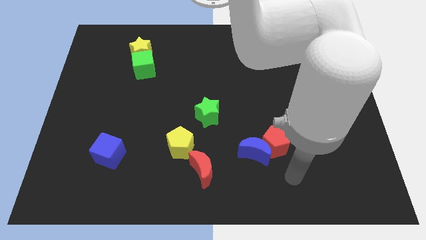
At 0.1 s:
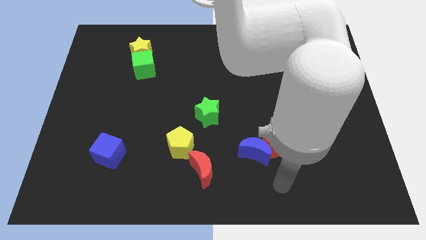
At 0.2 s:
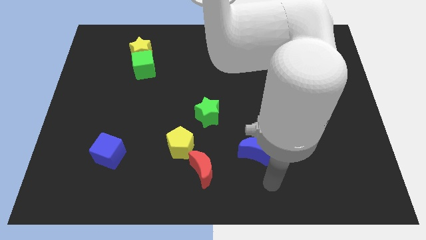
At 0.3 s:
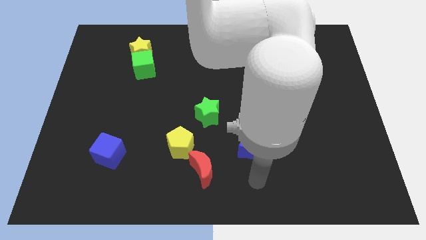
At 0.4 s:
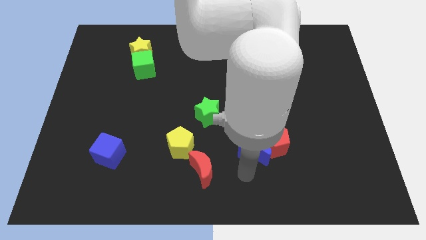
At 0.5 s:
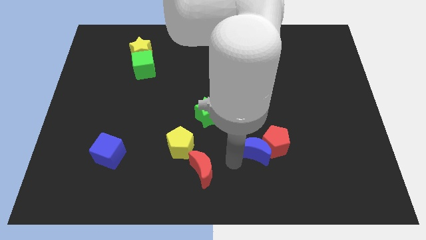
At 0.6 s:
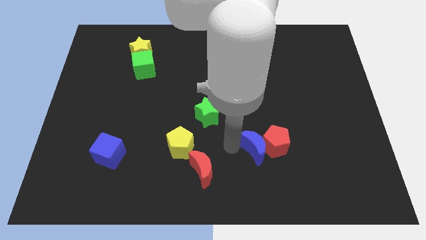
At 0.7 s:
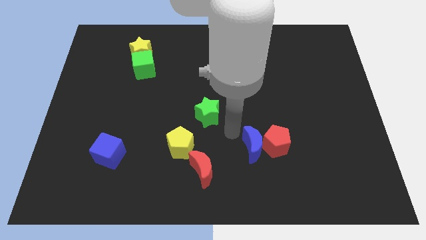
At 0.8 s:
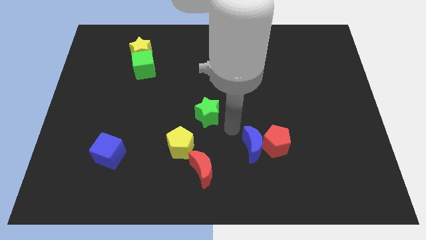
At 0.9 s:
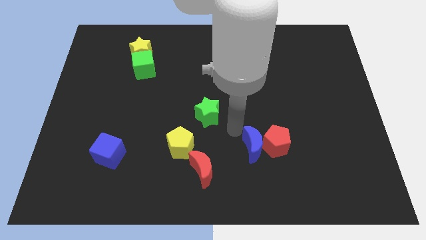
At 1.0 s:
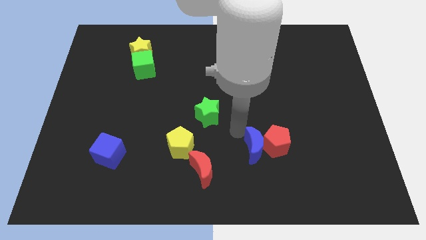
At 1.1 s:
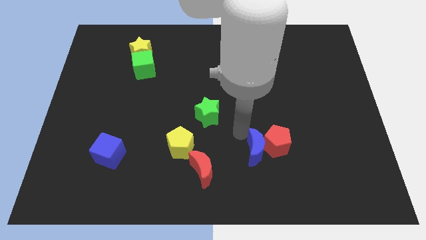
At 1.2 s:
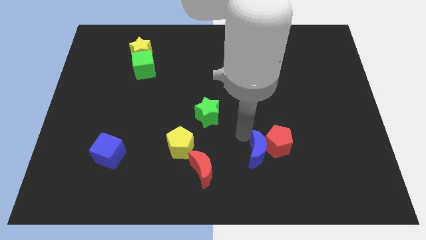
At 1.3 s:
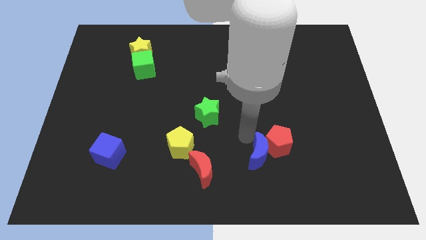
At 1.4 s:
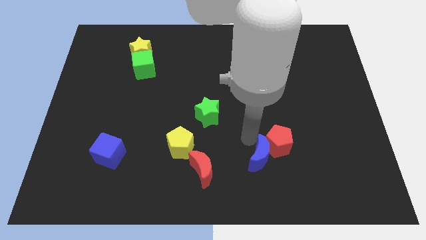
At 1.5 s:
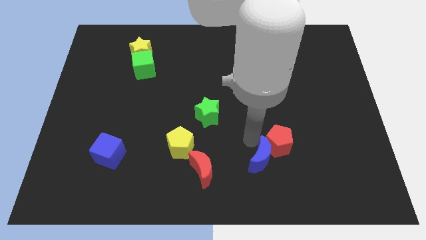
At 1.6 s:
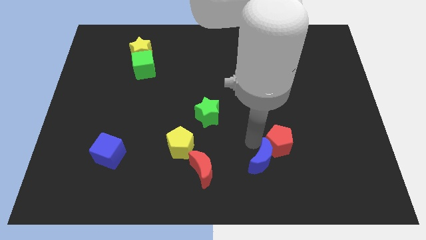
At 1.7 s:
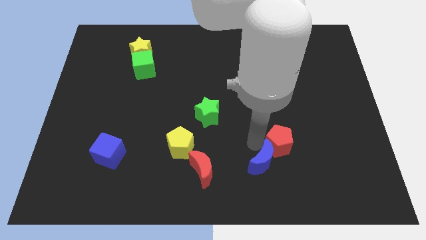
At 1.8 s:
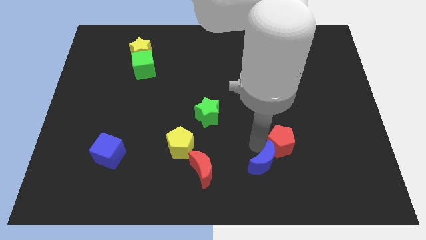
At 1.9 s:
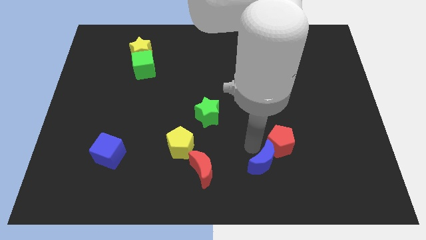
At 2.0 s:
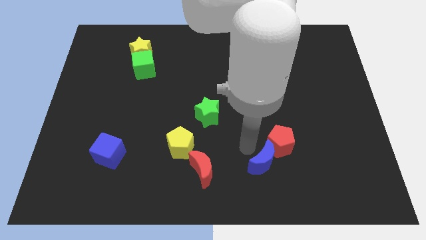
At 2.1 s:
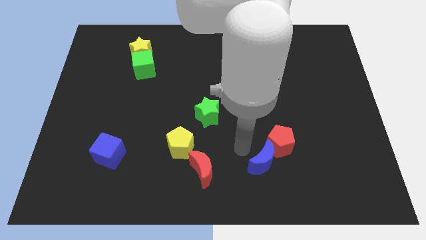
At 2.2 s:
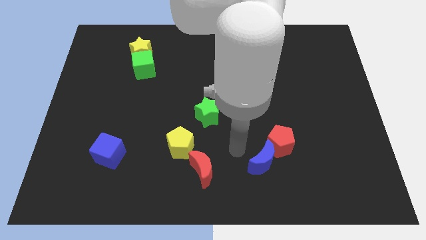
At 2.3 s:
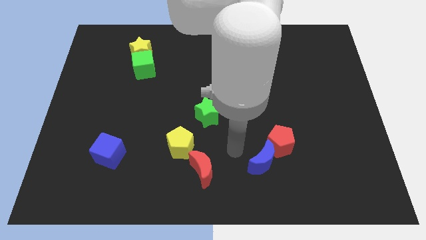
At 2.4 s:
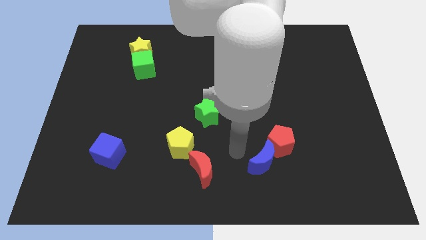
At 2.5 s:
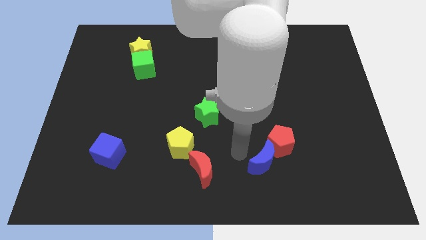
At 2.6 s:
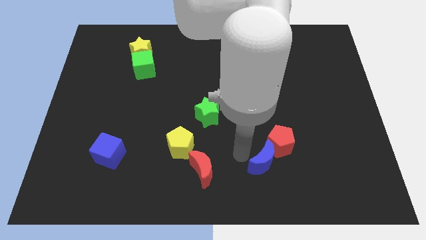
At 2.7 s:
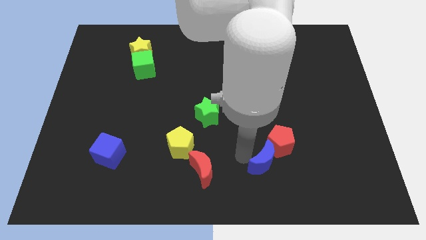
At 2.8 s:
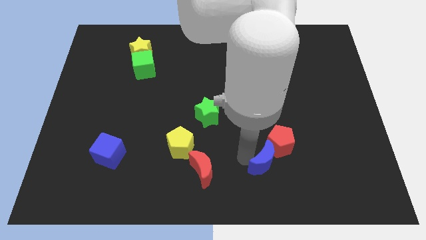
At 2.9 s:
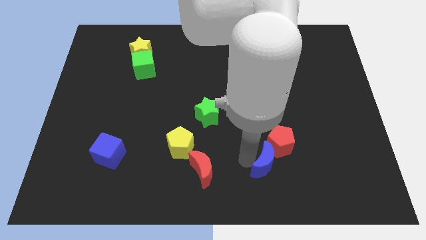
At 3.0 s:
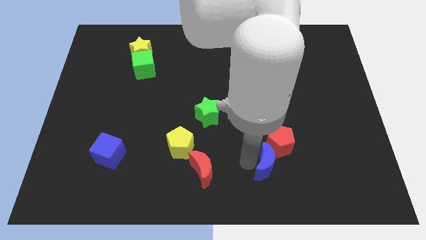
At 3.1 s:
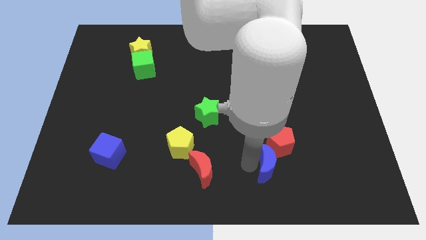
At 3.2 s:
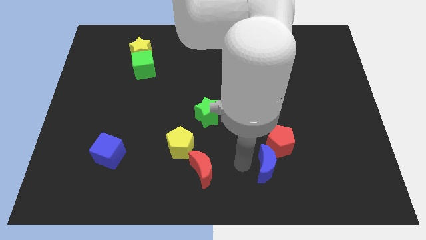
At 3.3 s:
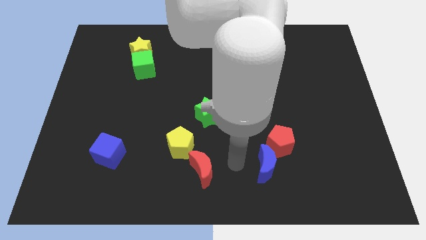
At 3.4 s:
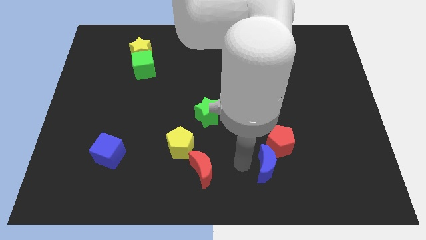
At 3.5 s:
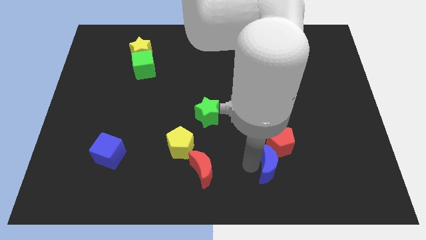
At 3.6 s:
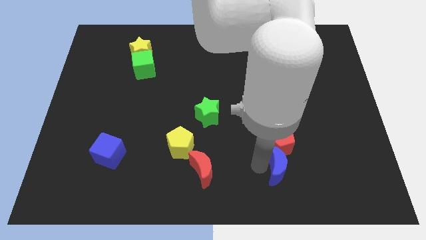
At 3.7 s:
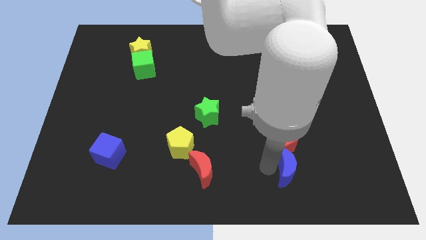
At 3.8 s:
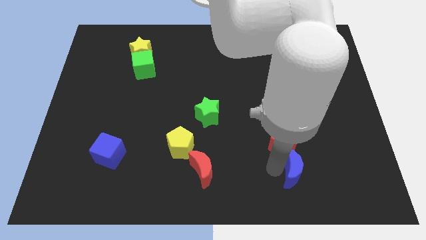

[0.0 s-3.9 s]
move the blue moon a little to the right

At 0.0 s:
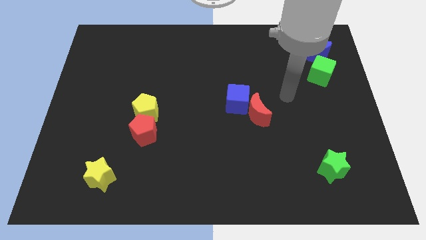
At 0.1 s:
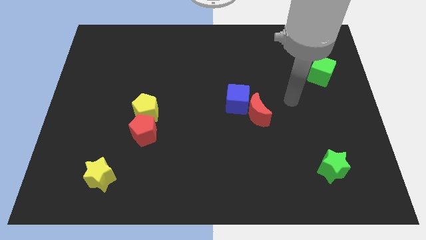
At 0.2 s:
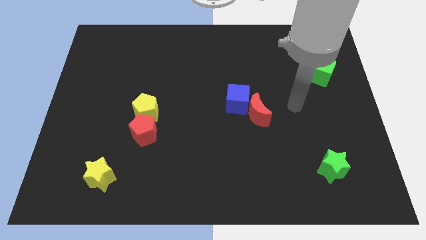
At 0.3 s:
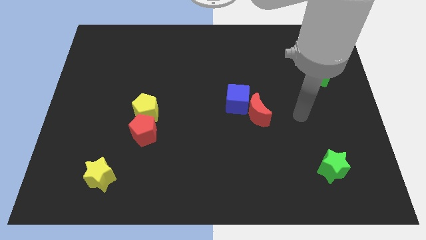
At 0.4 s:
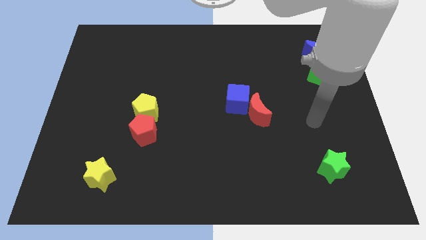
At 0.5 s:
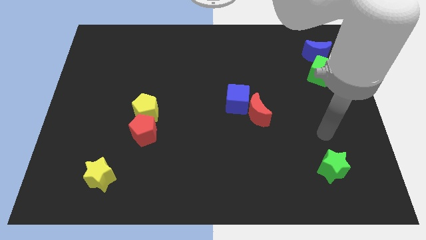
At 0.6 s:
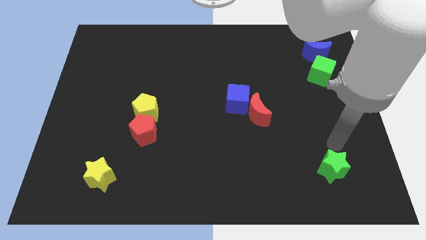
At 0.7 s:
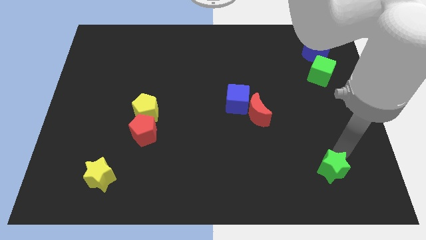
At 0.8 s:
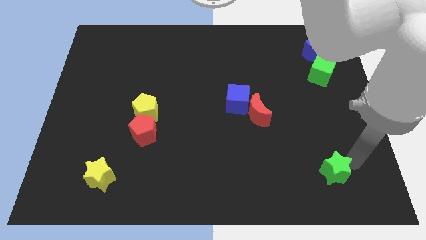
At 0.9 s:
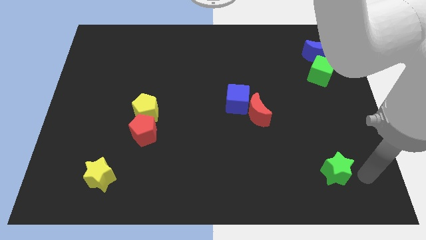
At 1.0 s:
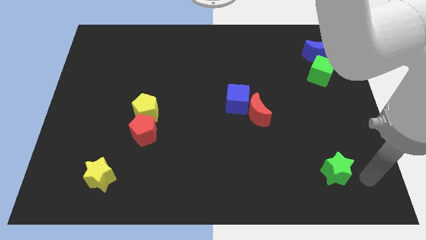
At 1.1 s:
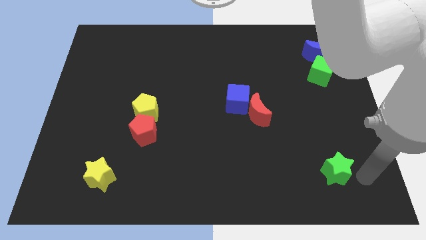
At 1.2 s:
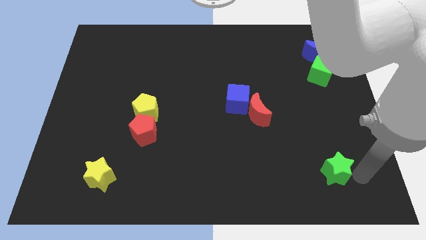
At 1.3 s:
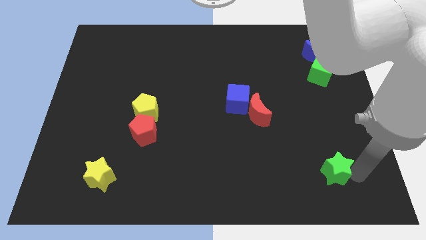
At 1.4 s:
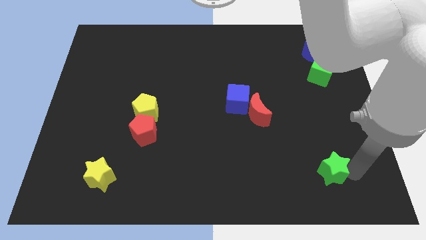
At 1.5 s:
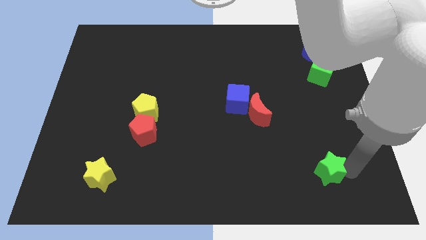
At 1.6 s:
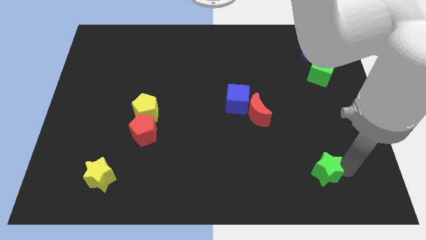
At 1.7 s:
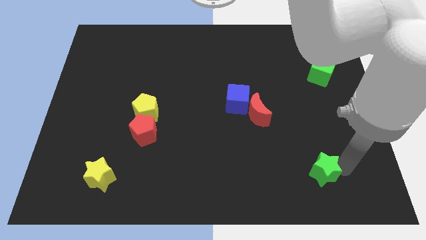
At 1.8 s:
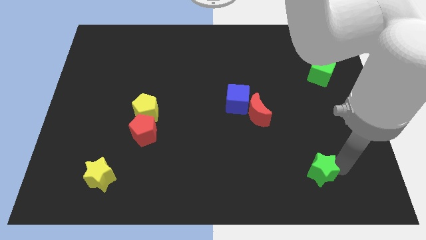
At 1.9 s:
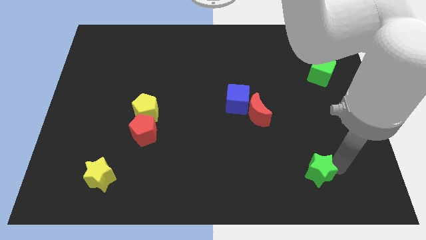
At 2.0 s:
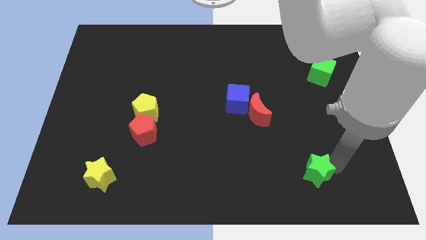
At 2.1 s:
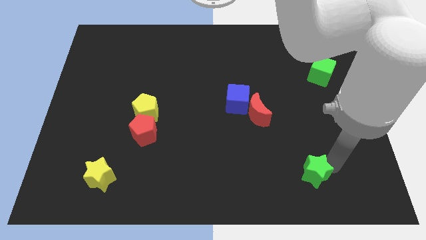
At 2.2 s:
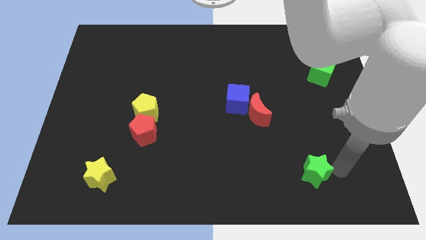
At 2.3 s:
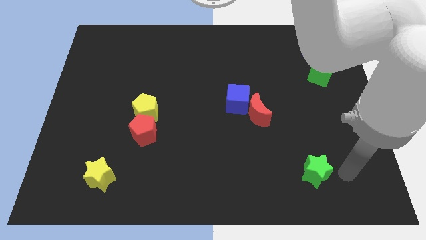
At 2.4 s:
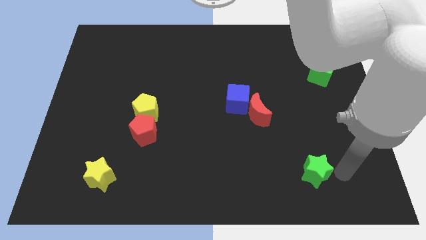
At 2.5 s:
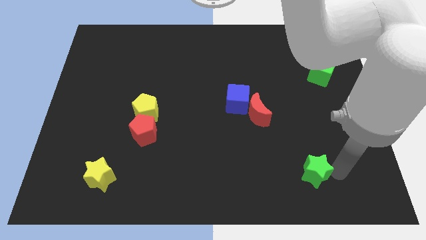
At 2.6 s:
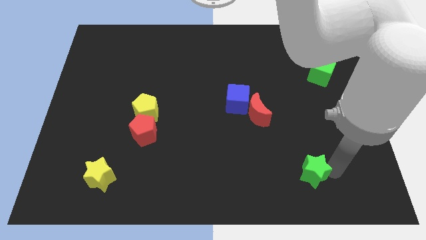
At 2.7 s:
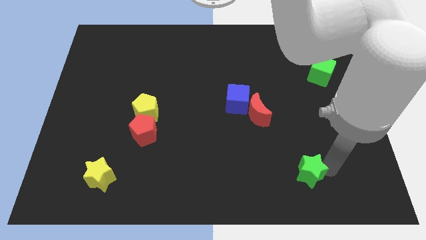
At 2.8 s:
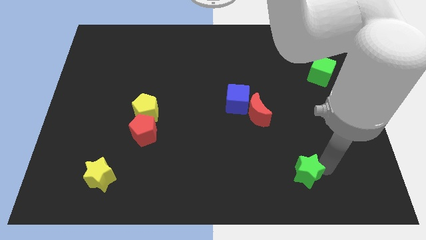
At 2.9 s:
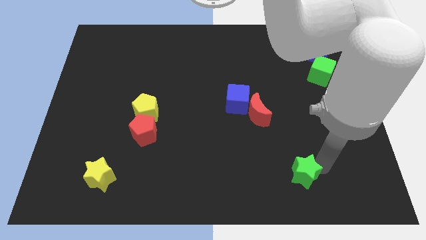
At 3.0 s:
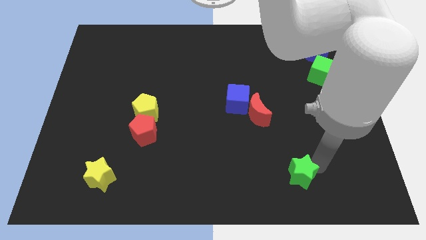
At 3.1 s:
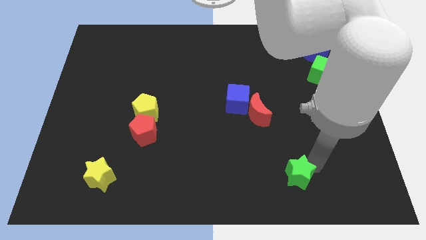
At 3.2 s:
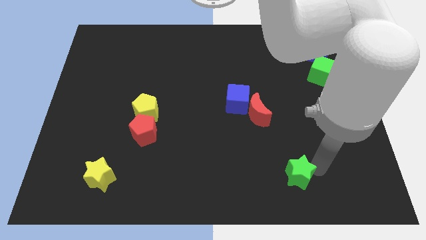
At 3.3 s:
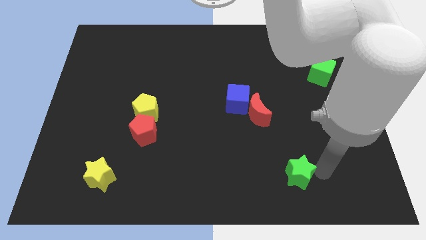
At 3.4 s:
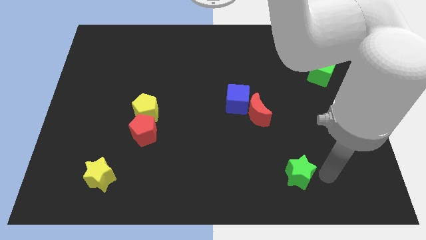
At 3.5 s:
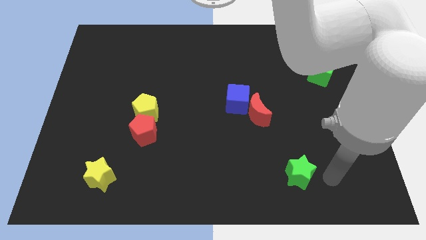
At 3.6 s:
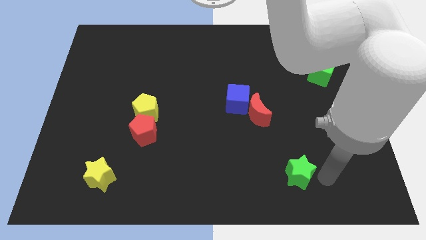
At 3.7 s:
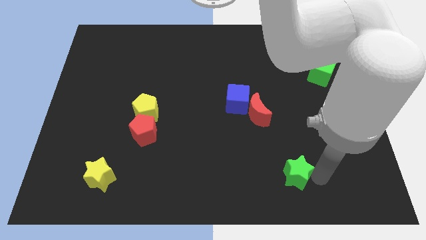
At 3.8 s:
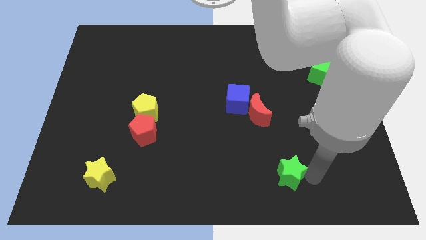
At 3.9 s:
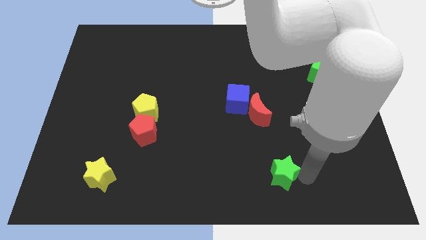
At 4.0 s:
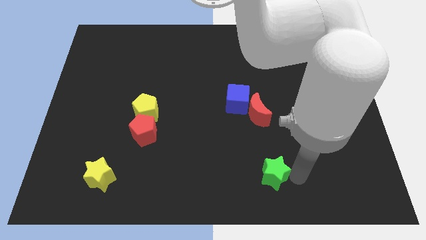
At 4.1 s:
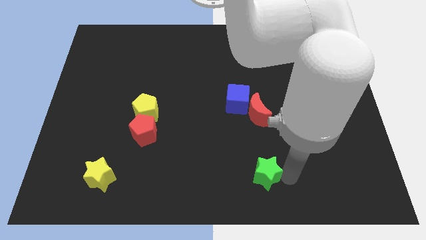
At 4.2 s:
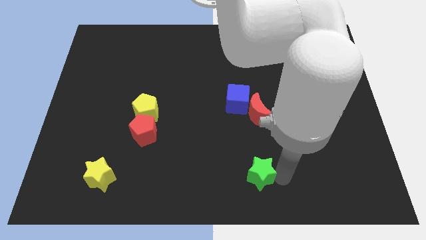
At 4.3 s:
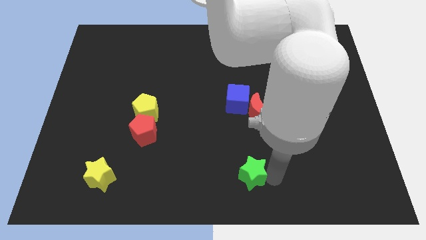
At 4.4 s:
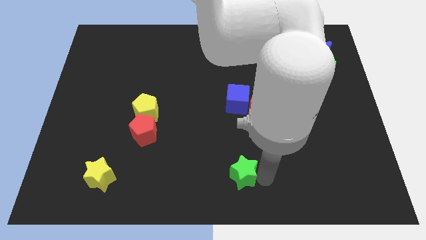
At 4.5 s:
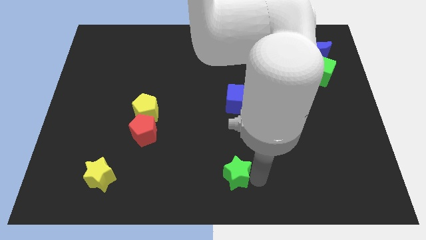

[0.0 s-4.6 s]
push the green star left
